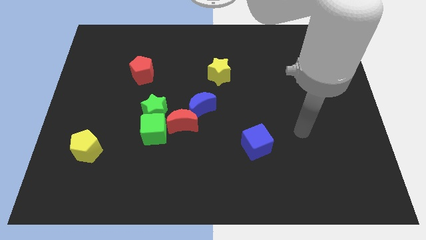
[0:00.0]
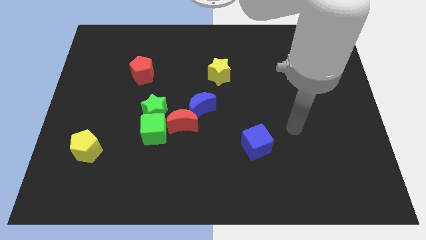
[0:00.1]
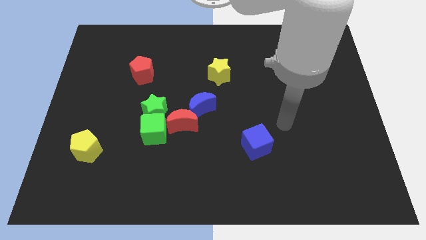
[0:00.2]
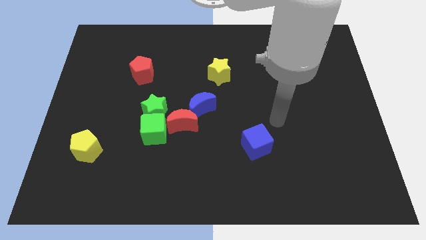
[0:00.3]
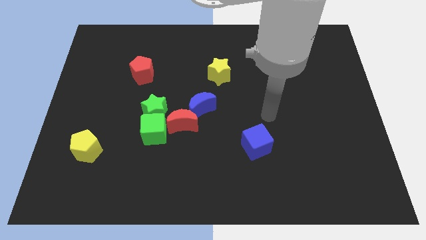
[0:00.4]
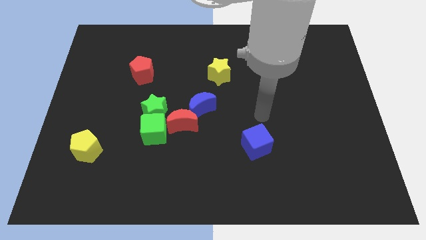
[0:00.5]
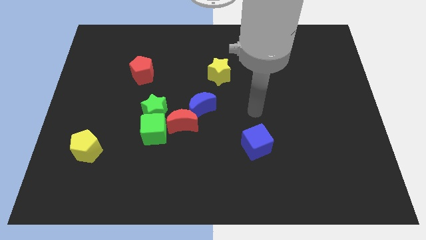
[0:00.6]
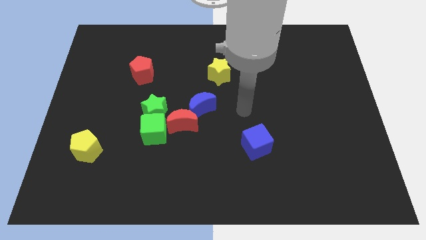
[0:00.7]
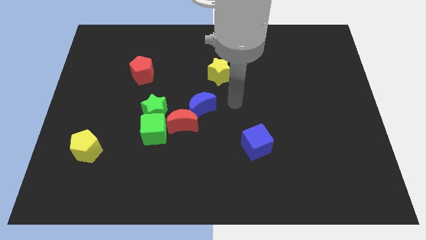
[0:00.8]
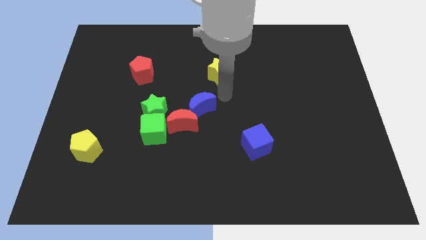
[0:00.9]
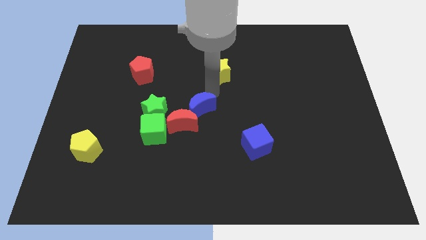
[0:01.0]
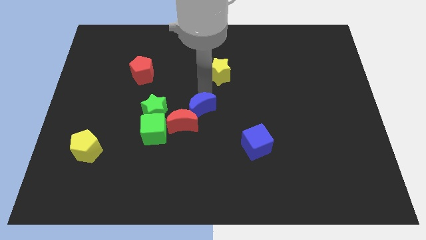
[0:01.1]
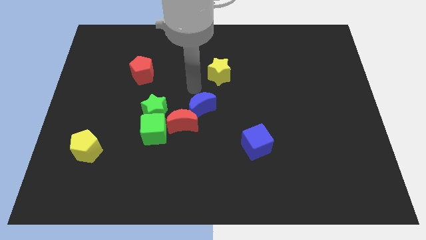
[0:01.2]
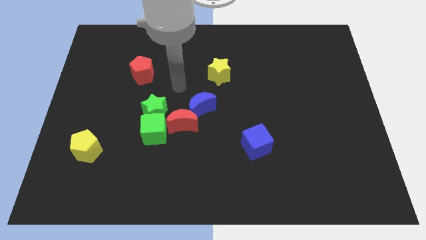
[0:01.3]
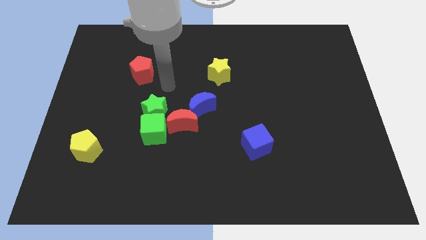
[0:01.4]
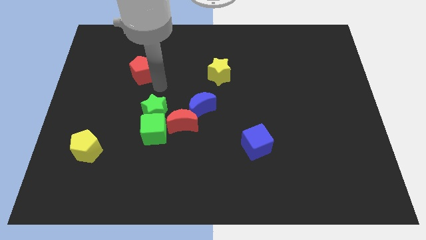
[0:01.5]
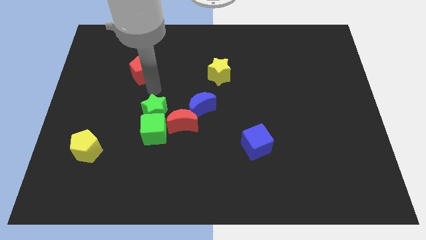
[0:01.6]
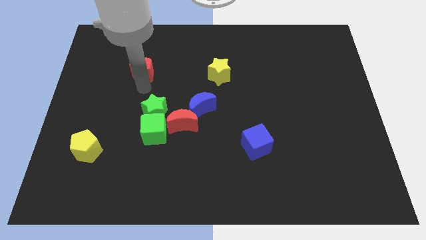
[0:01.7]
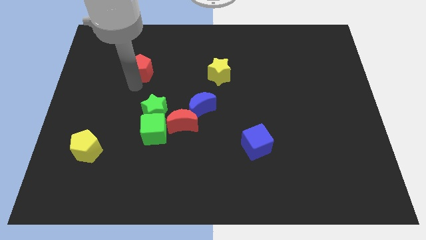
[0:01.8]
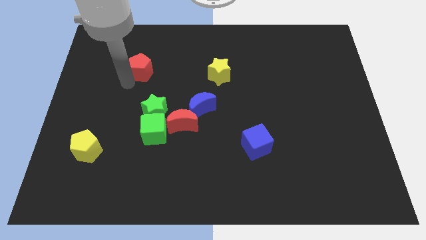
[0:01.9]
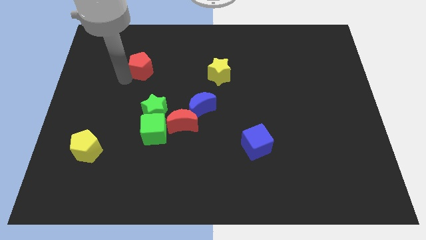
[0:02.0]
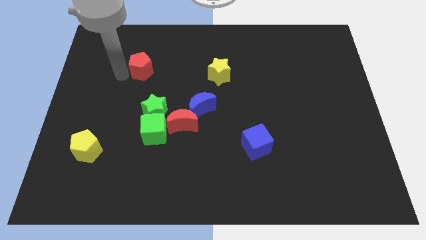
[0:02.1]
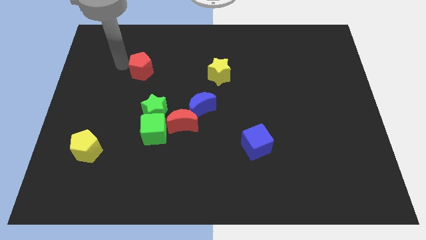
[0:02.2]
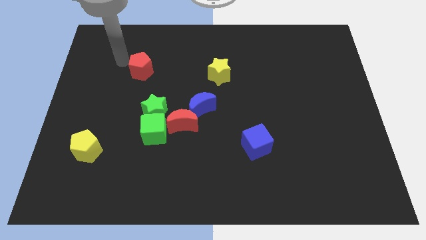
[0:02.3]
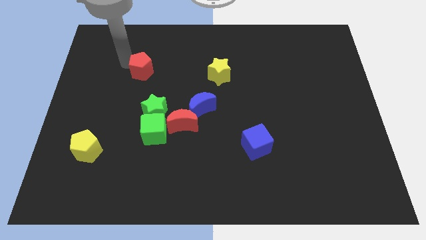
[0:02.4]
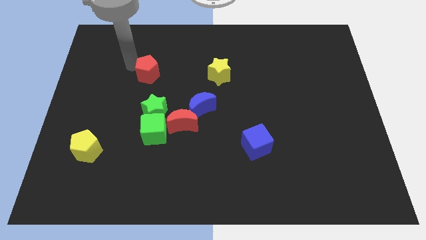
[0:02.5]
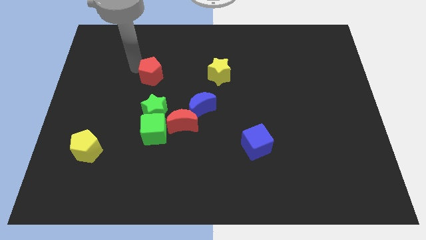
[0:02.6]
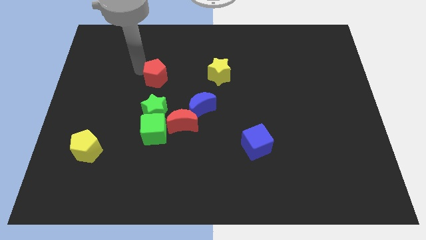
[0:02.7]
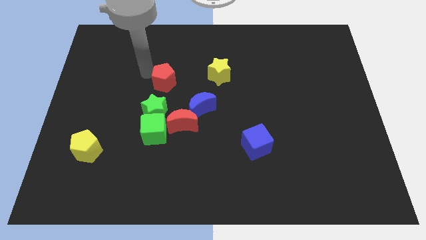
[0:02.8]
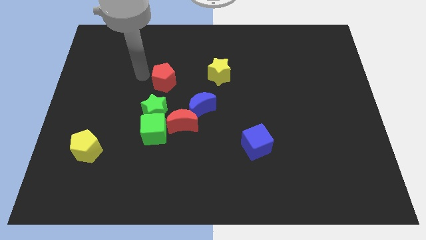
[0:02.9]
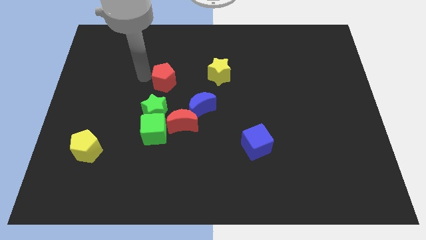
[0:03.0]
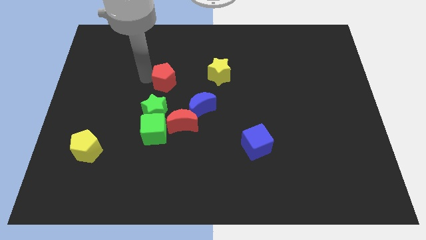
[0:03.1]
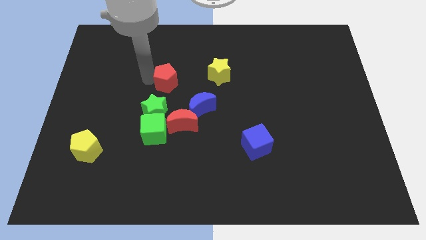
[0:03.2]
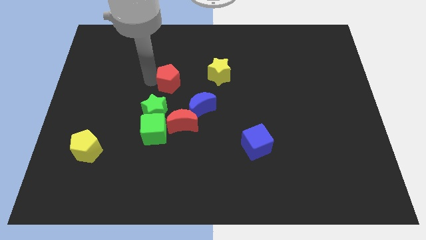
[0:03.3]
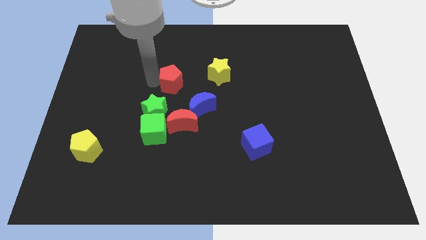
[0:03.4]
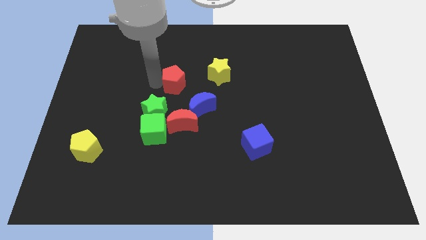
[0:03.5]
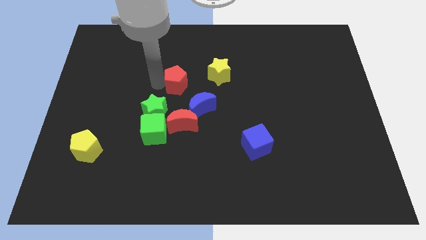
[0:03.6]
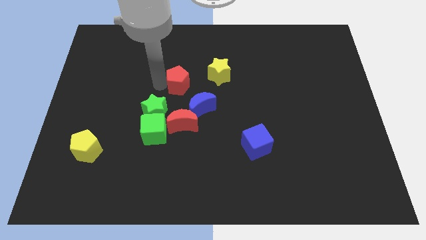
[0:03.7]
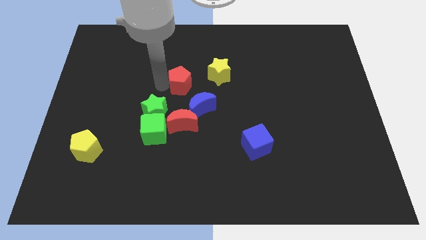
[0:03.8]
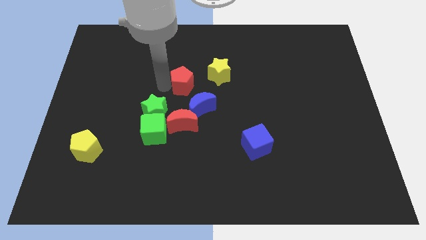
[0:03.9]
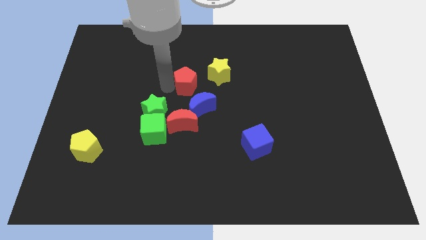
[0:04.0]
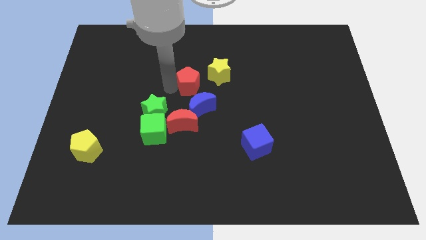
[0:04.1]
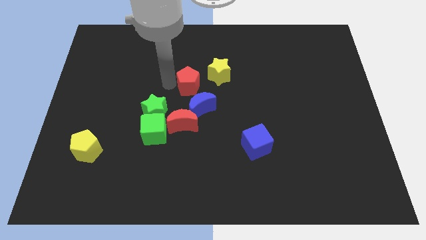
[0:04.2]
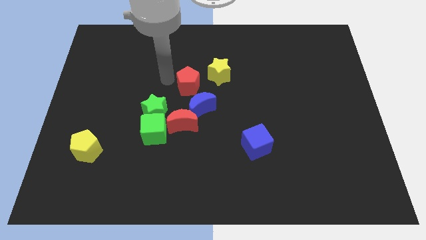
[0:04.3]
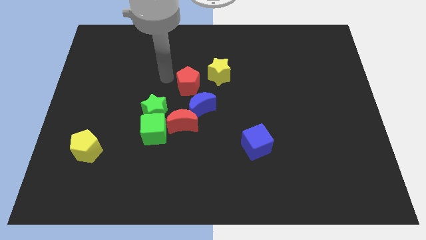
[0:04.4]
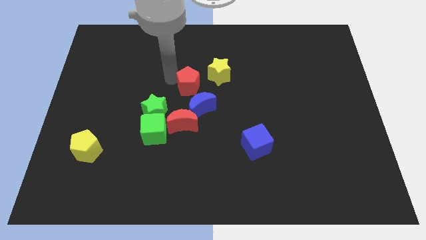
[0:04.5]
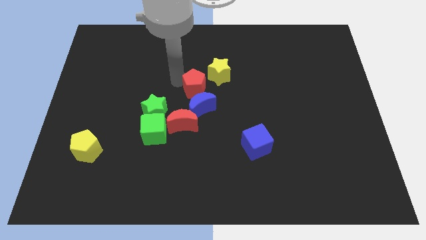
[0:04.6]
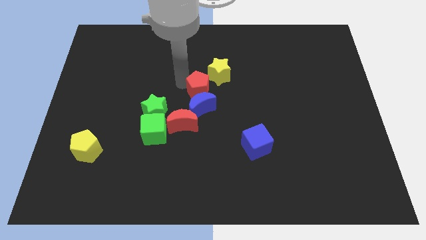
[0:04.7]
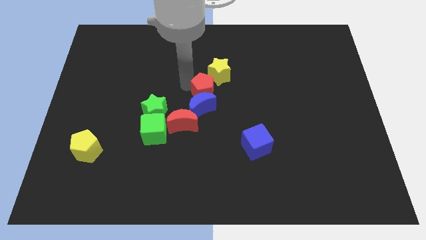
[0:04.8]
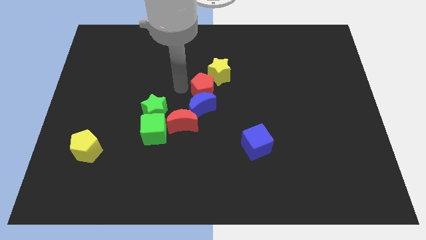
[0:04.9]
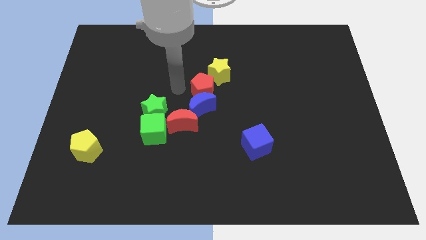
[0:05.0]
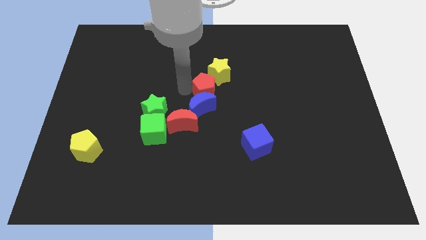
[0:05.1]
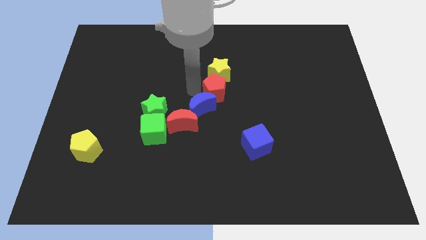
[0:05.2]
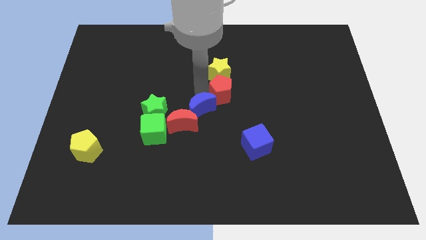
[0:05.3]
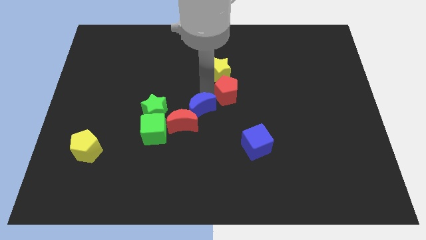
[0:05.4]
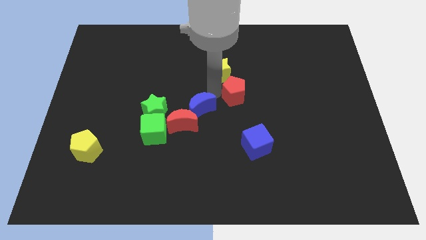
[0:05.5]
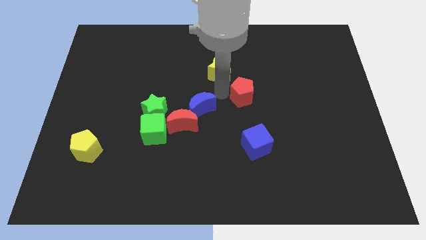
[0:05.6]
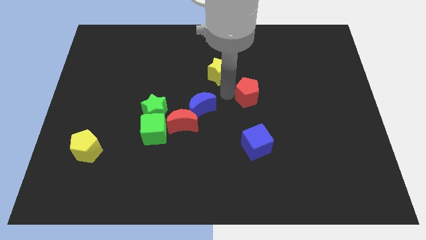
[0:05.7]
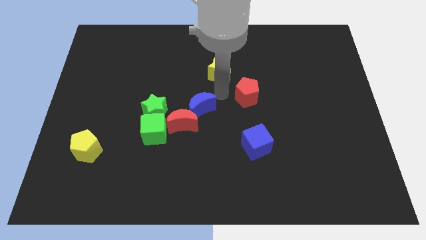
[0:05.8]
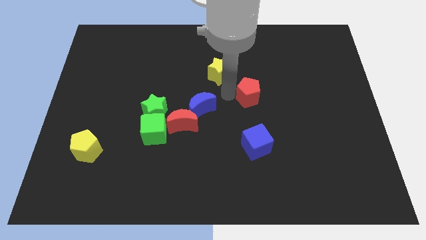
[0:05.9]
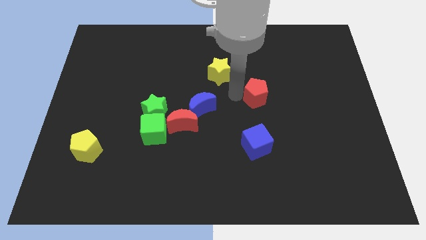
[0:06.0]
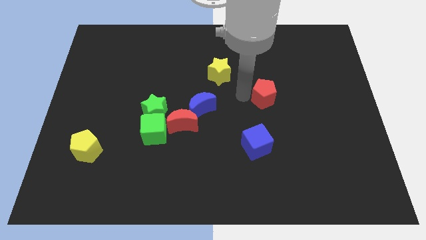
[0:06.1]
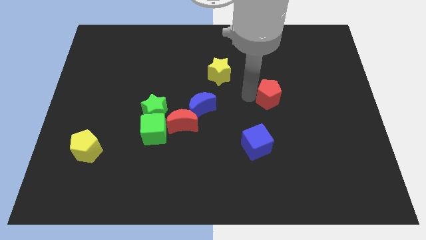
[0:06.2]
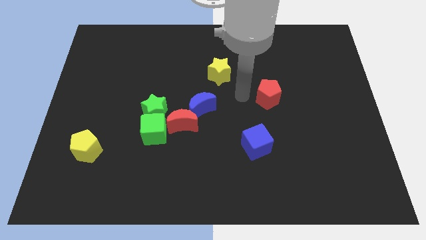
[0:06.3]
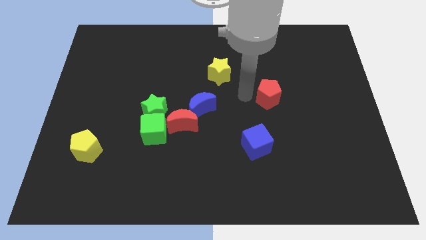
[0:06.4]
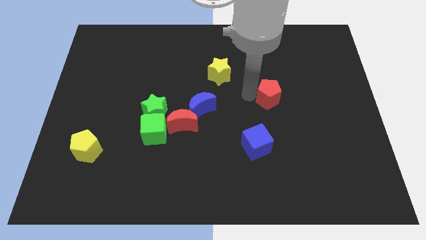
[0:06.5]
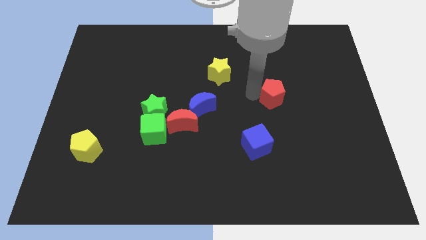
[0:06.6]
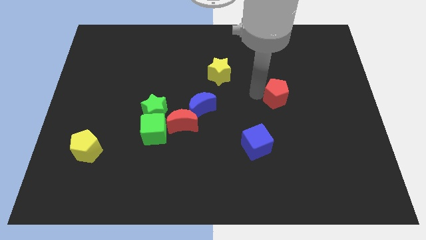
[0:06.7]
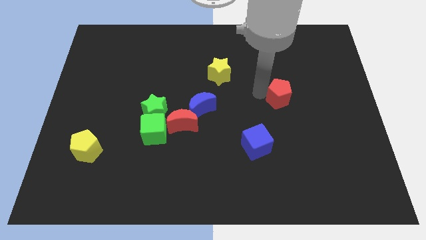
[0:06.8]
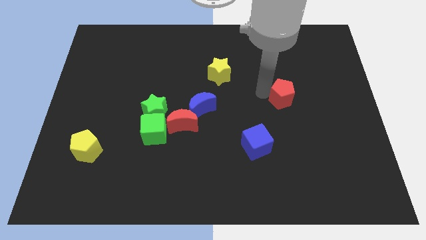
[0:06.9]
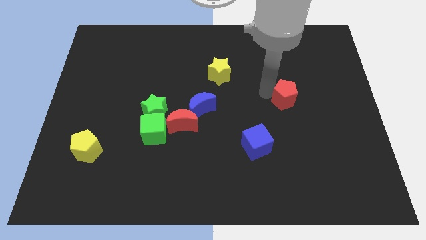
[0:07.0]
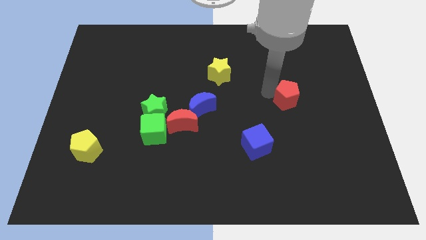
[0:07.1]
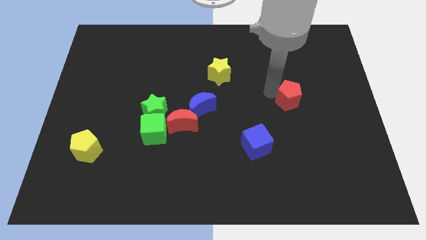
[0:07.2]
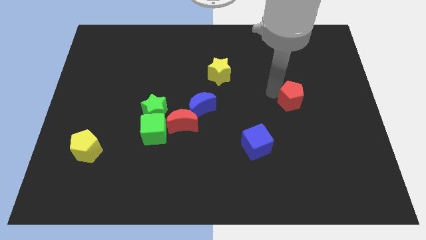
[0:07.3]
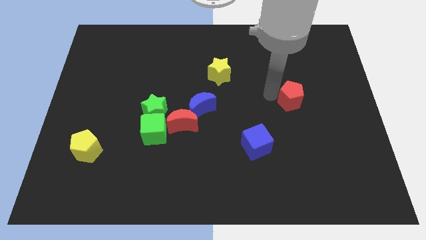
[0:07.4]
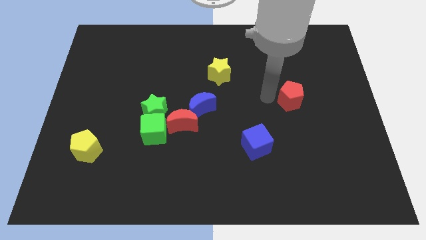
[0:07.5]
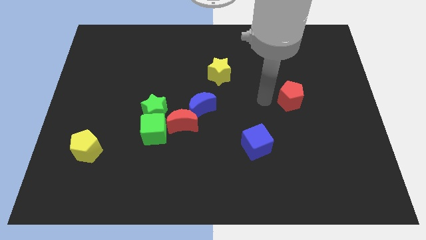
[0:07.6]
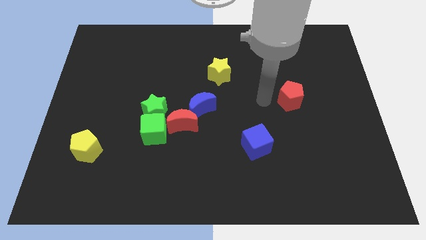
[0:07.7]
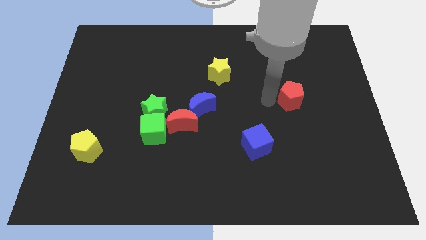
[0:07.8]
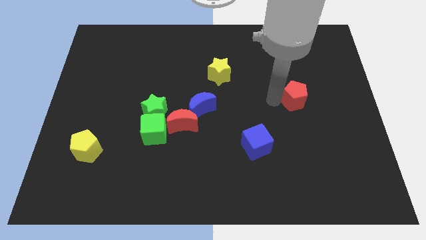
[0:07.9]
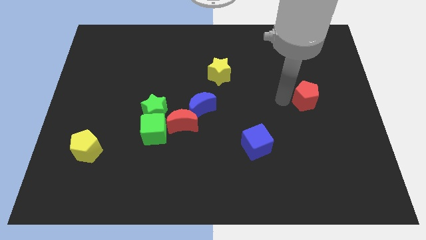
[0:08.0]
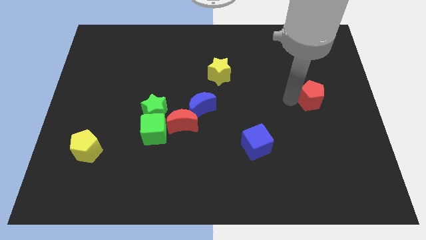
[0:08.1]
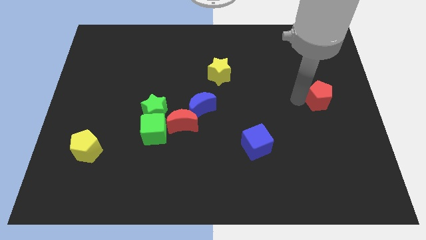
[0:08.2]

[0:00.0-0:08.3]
slide the red pentagon to the right side
